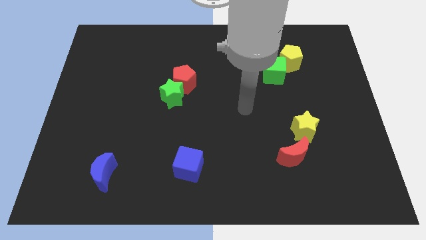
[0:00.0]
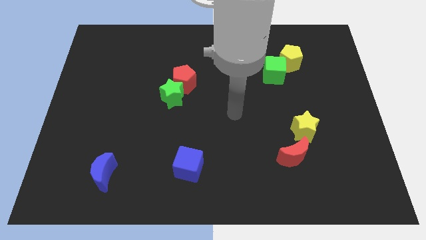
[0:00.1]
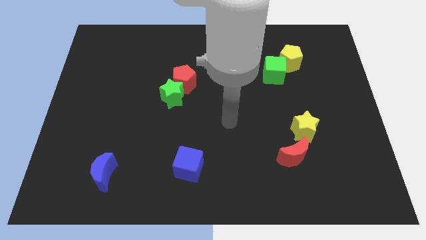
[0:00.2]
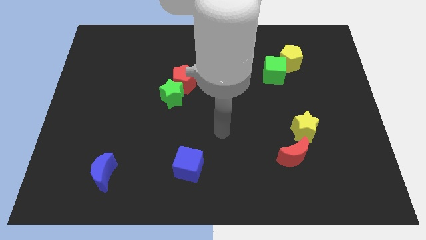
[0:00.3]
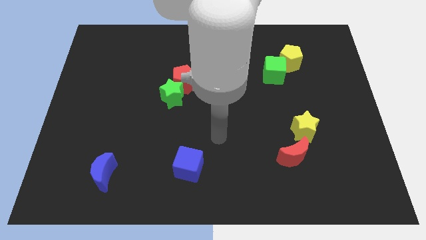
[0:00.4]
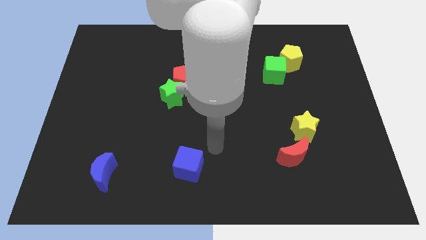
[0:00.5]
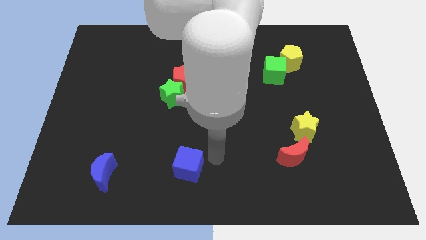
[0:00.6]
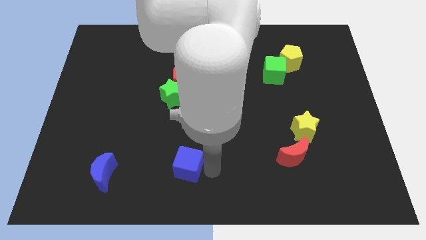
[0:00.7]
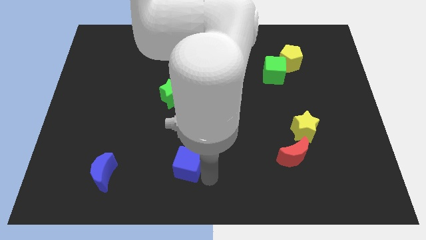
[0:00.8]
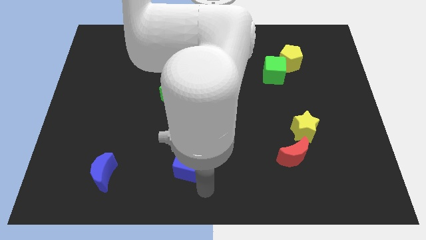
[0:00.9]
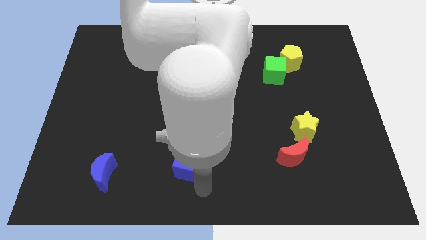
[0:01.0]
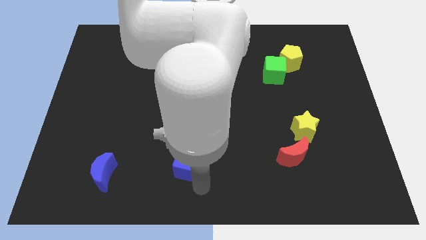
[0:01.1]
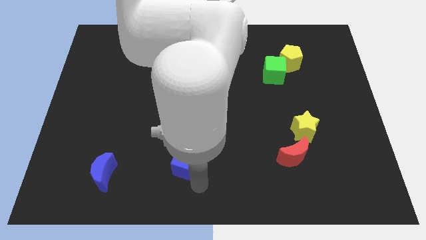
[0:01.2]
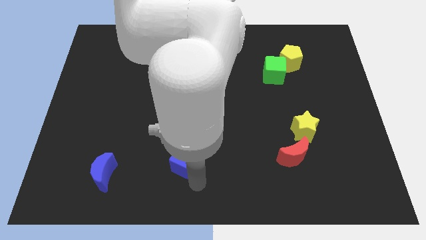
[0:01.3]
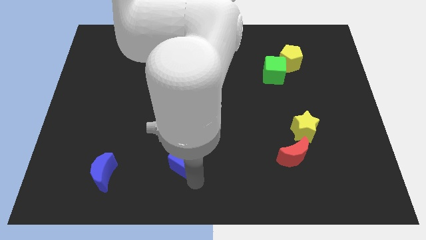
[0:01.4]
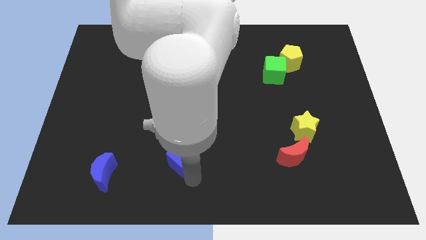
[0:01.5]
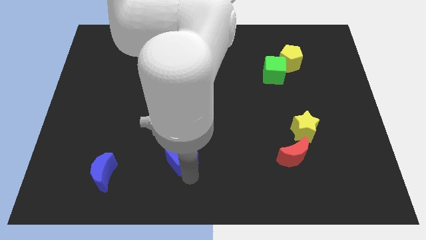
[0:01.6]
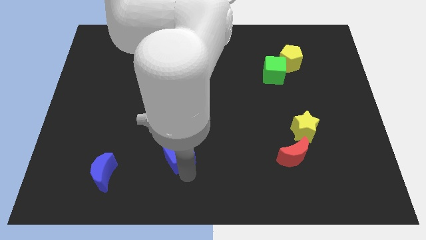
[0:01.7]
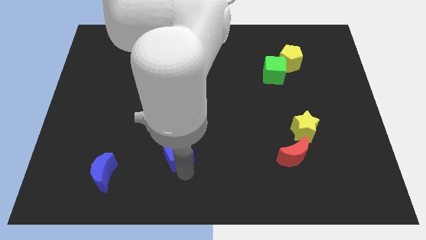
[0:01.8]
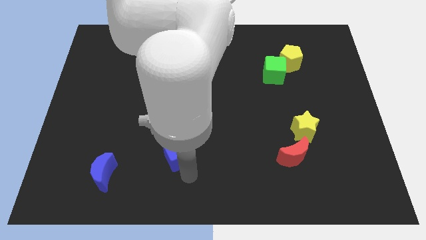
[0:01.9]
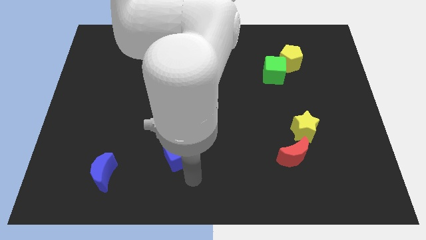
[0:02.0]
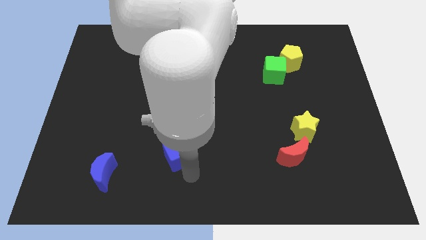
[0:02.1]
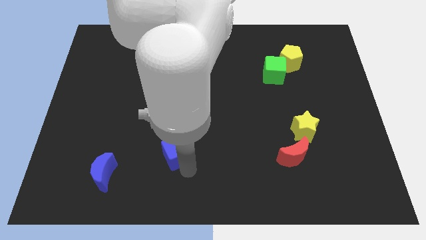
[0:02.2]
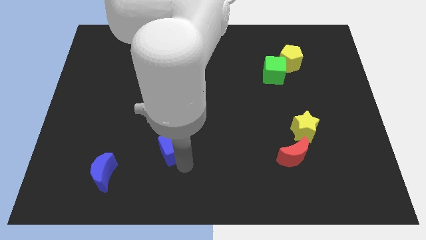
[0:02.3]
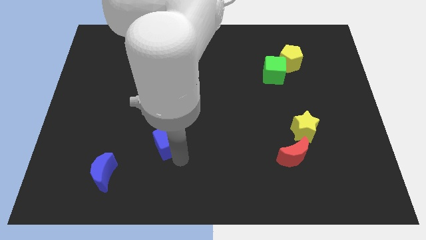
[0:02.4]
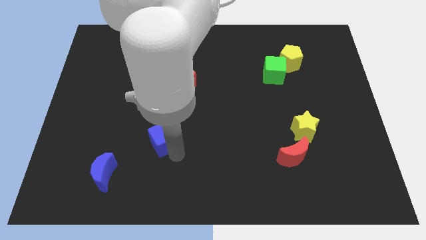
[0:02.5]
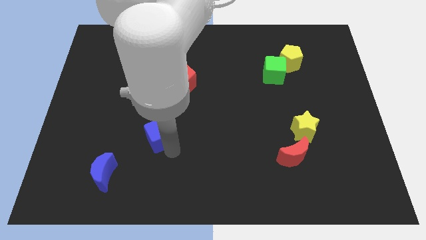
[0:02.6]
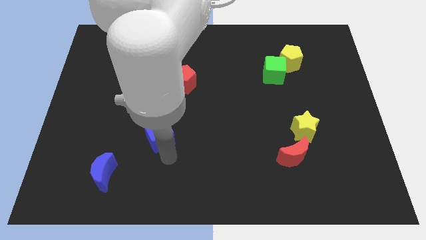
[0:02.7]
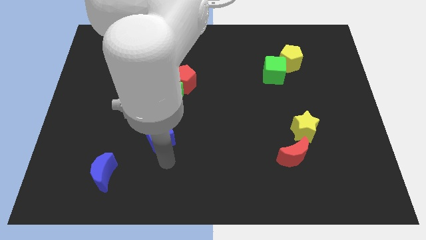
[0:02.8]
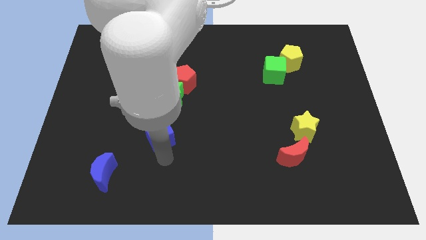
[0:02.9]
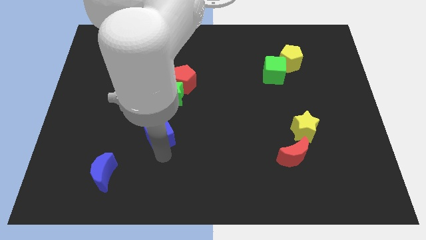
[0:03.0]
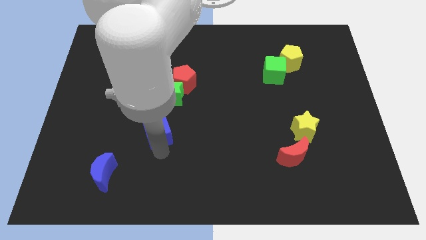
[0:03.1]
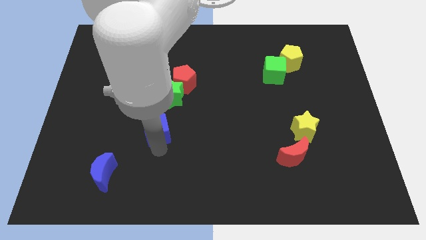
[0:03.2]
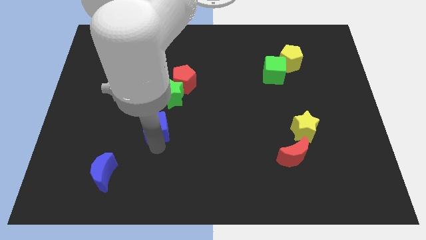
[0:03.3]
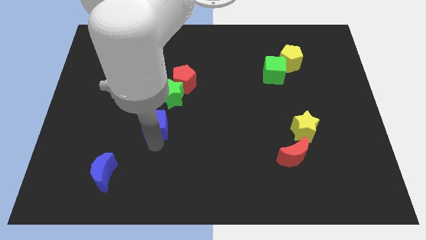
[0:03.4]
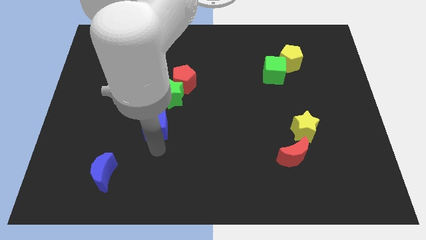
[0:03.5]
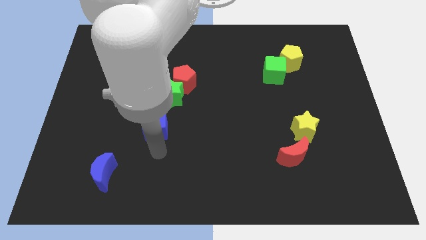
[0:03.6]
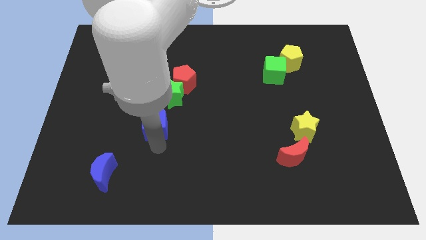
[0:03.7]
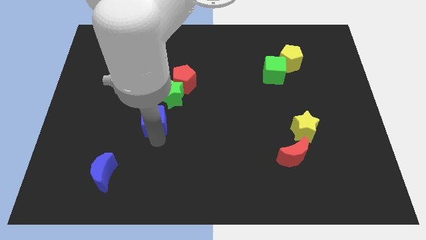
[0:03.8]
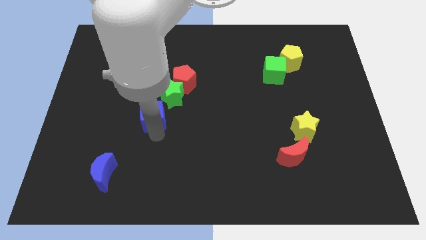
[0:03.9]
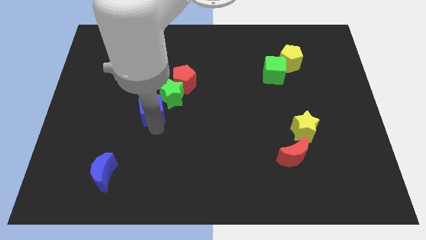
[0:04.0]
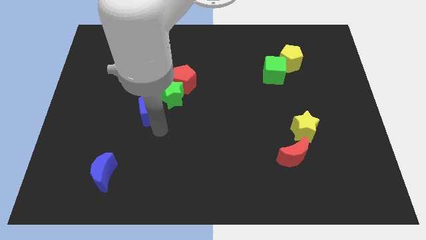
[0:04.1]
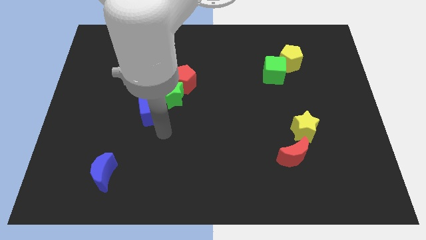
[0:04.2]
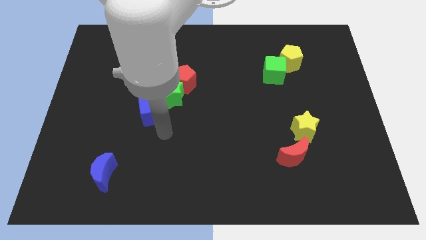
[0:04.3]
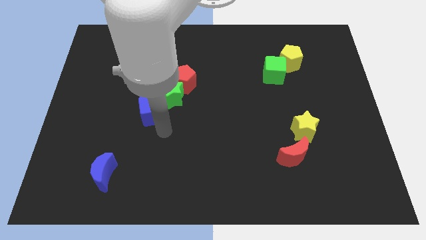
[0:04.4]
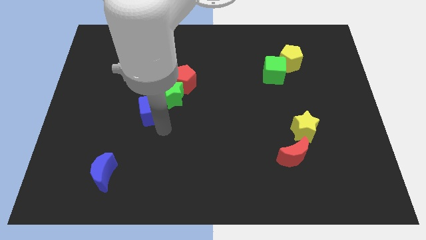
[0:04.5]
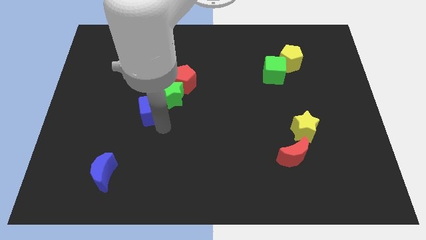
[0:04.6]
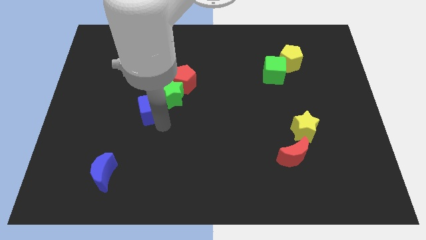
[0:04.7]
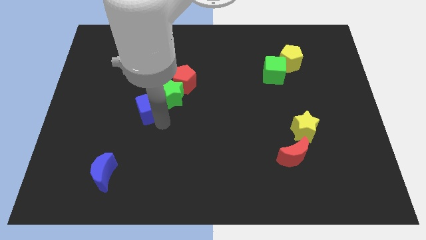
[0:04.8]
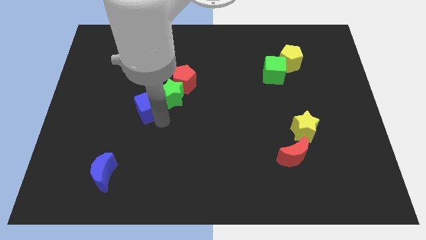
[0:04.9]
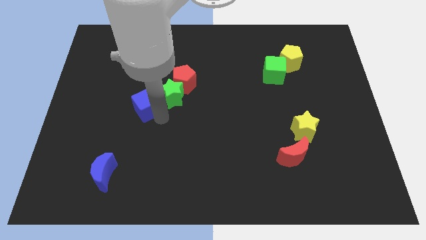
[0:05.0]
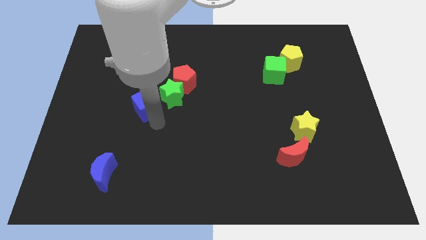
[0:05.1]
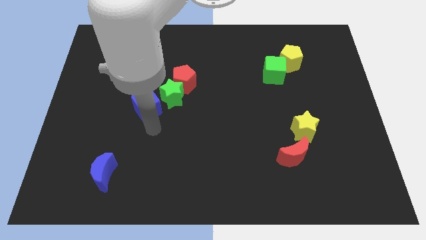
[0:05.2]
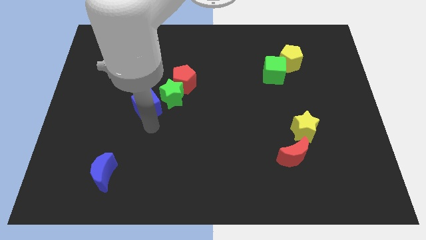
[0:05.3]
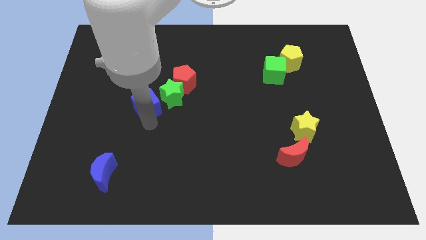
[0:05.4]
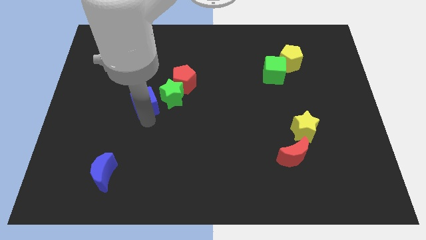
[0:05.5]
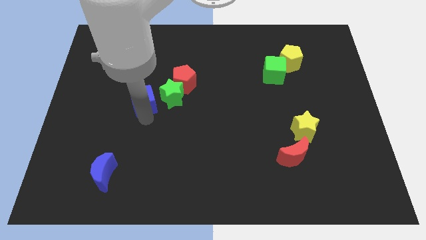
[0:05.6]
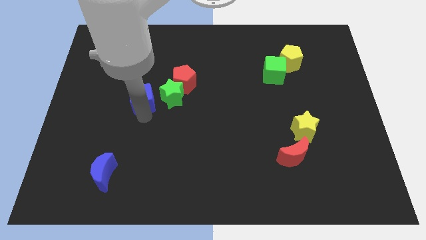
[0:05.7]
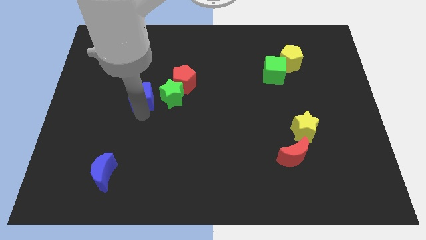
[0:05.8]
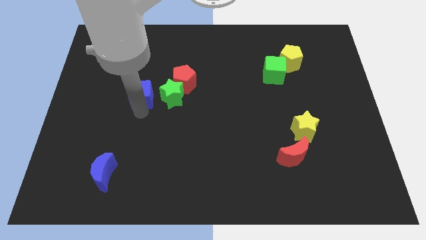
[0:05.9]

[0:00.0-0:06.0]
put the blue cube left of the red pentagon

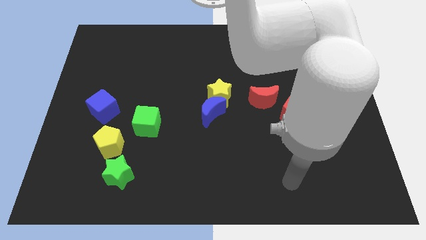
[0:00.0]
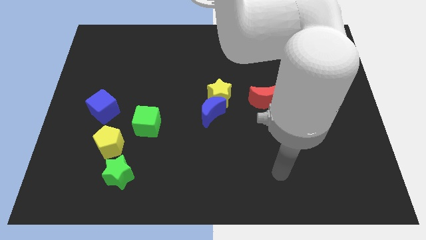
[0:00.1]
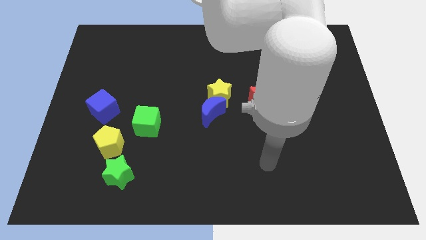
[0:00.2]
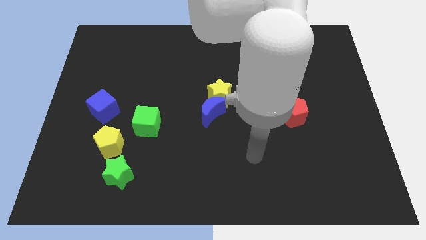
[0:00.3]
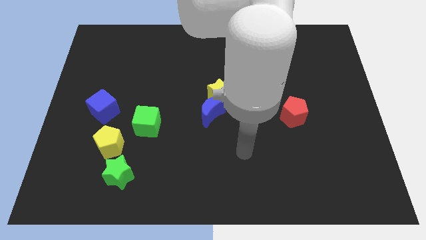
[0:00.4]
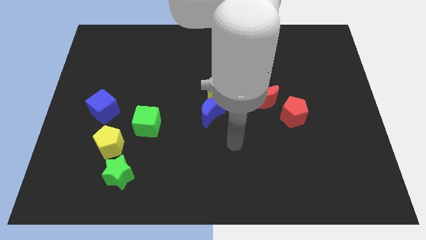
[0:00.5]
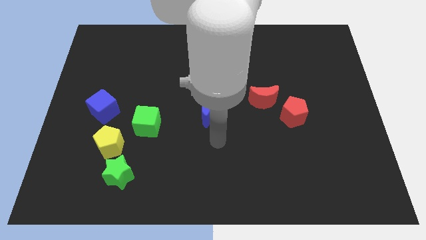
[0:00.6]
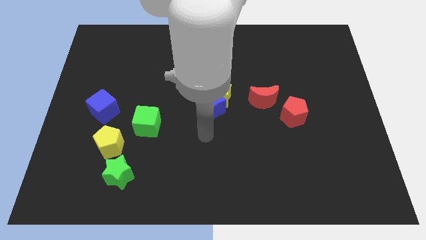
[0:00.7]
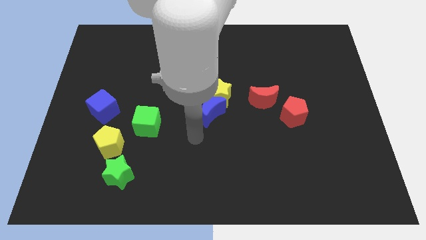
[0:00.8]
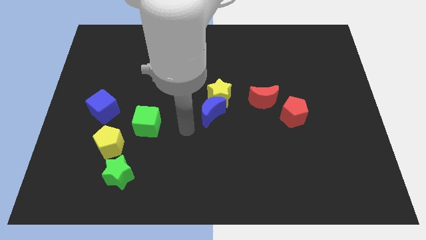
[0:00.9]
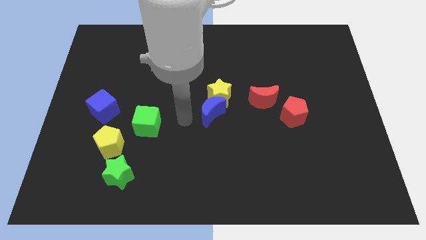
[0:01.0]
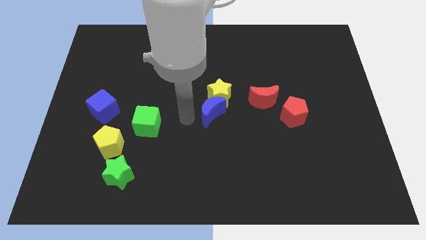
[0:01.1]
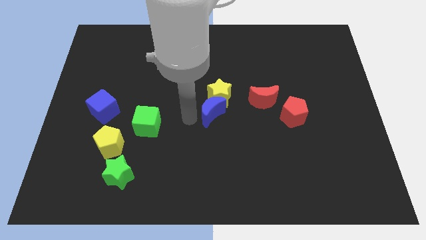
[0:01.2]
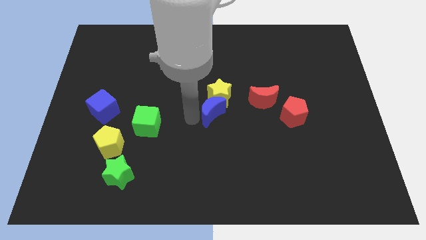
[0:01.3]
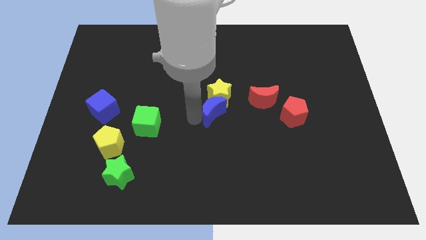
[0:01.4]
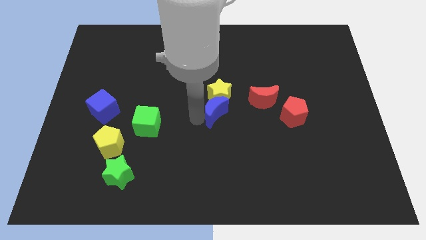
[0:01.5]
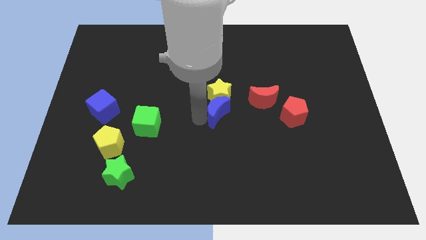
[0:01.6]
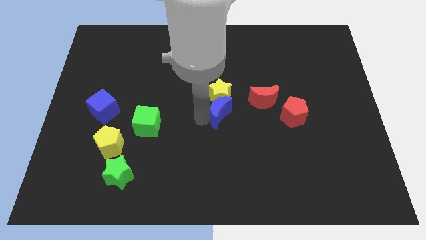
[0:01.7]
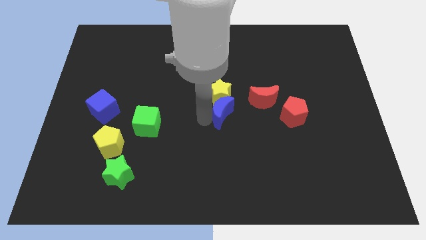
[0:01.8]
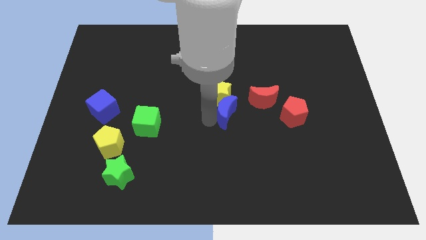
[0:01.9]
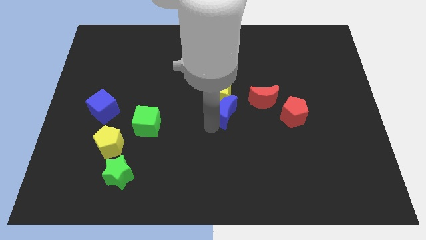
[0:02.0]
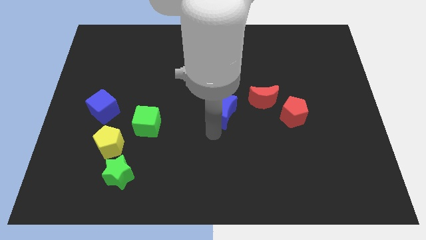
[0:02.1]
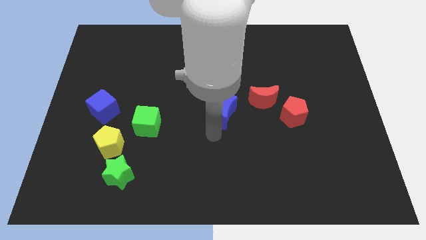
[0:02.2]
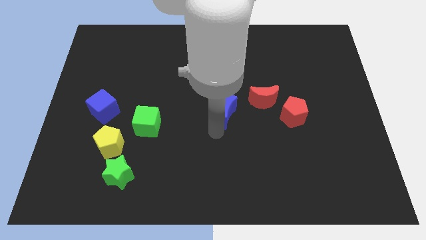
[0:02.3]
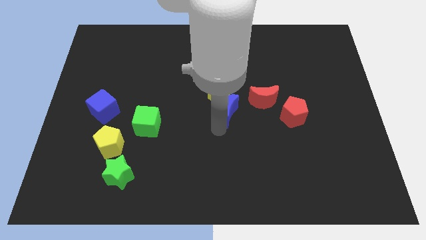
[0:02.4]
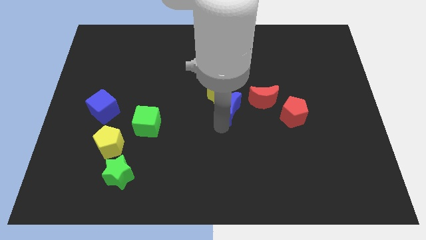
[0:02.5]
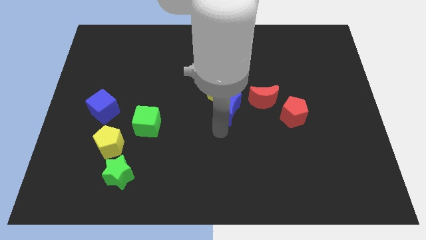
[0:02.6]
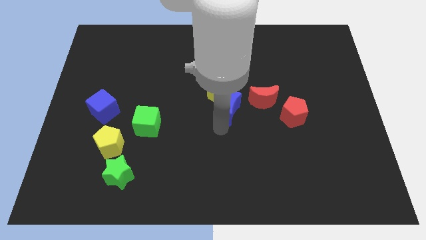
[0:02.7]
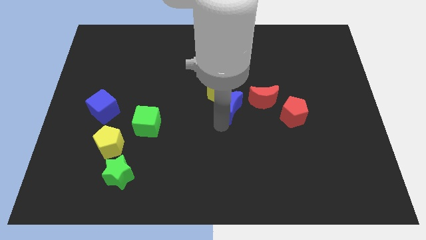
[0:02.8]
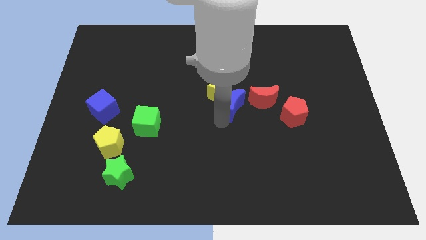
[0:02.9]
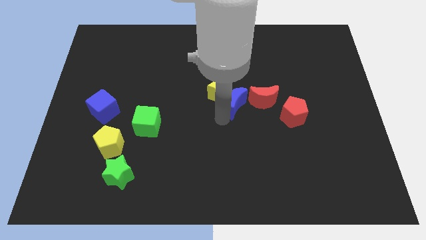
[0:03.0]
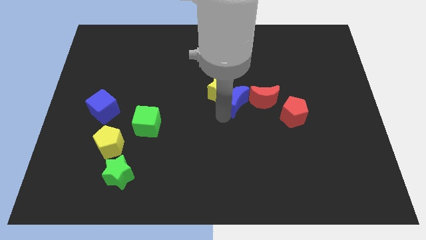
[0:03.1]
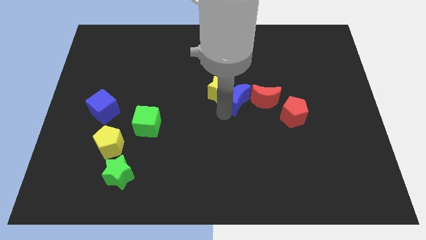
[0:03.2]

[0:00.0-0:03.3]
push the blue moon diagonally up and to the left of the red moon
